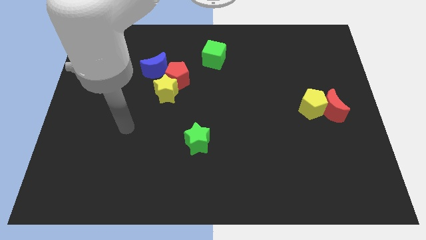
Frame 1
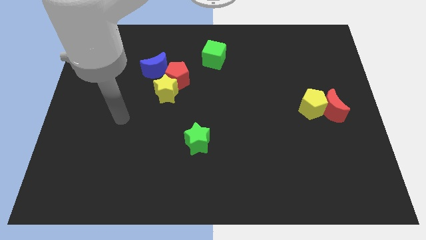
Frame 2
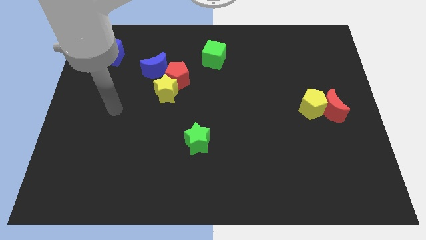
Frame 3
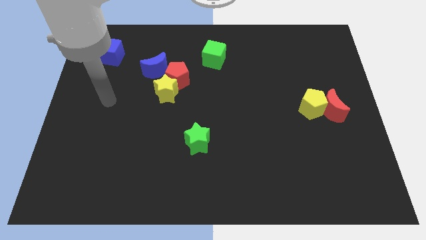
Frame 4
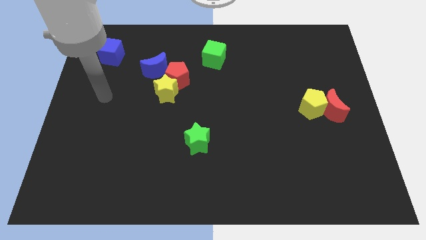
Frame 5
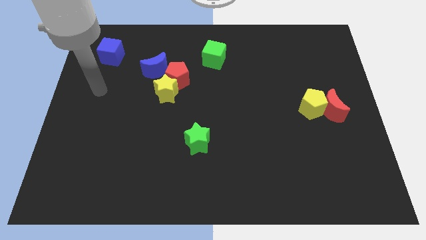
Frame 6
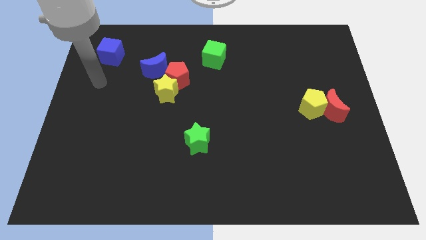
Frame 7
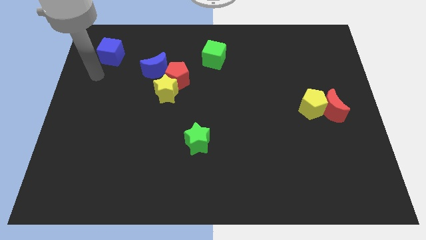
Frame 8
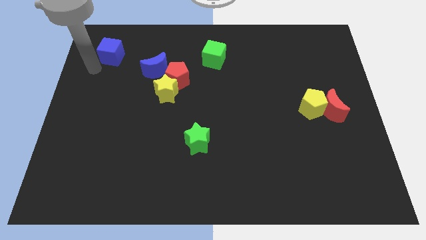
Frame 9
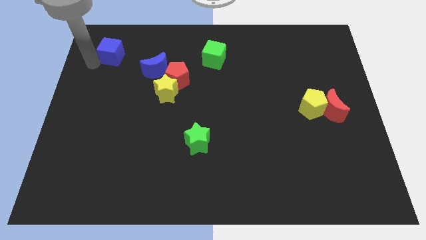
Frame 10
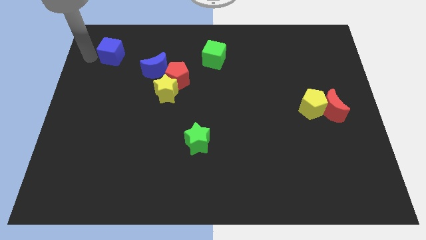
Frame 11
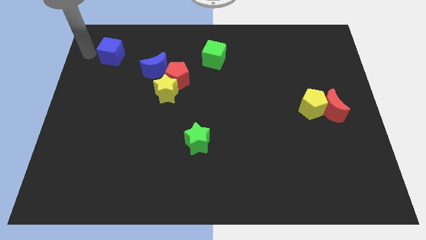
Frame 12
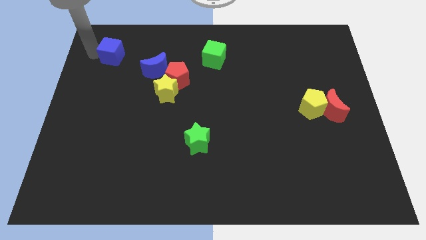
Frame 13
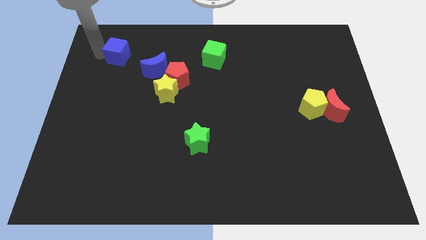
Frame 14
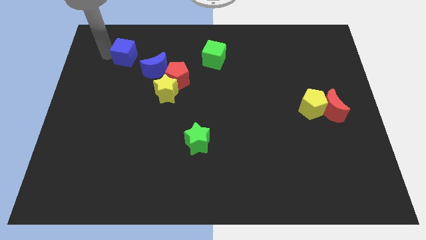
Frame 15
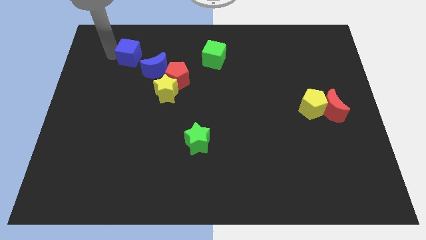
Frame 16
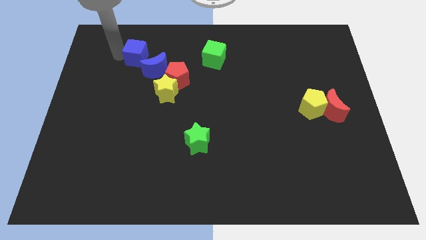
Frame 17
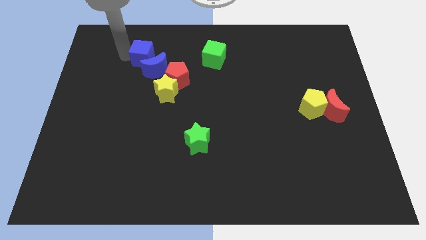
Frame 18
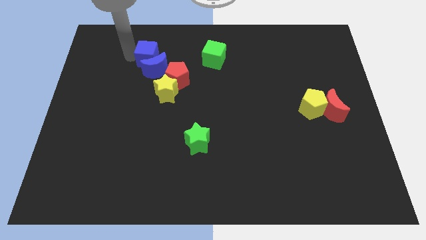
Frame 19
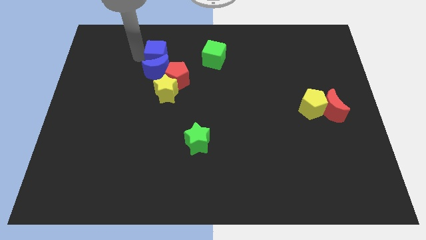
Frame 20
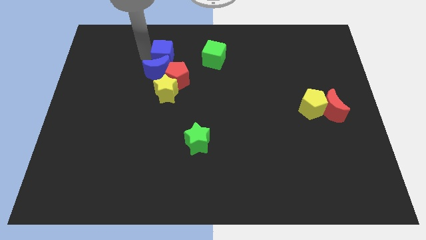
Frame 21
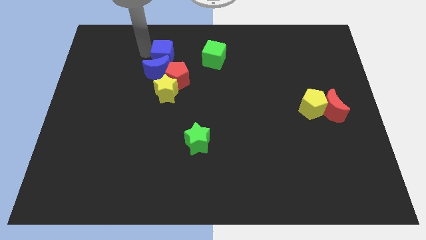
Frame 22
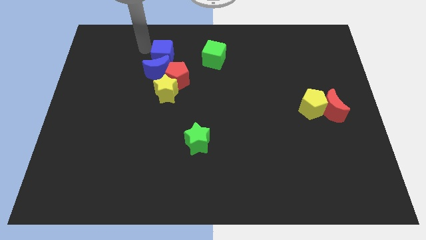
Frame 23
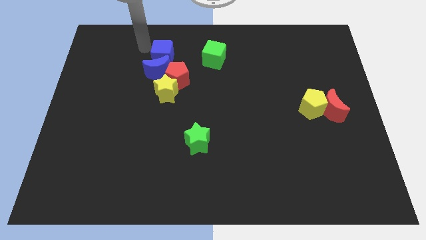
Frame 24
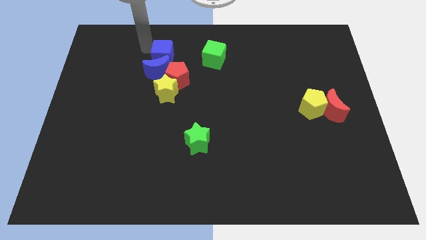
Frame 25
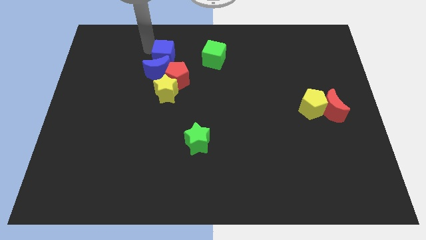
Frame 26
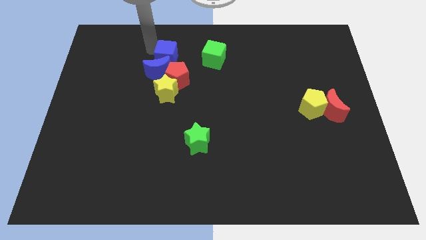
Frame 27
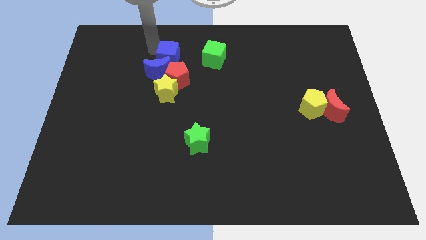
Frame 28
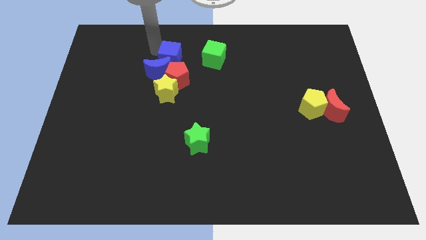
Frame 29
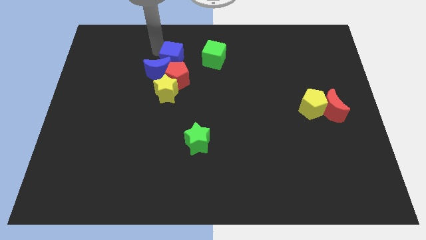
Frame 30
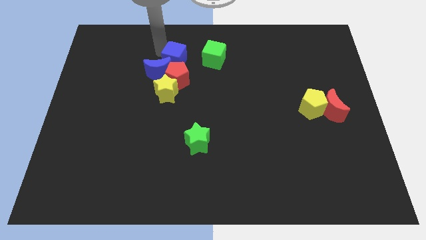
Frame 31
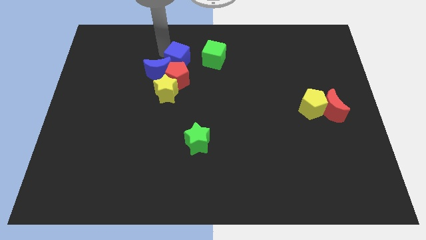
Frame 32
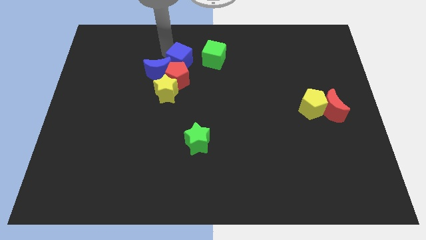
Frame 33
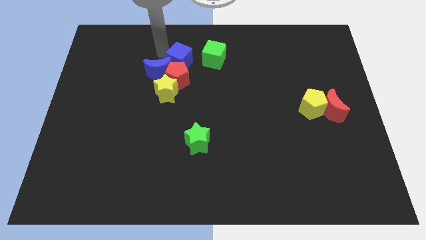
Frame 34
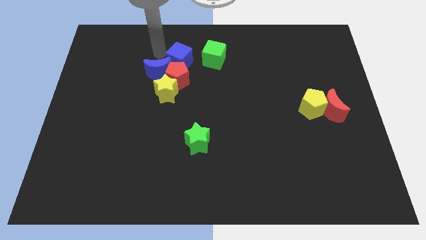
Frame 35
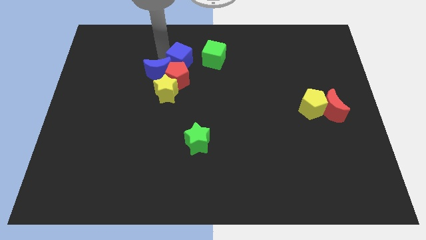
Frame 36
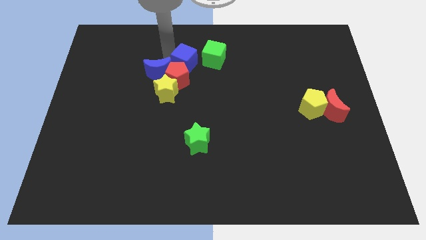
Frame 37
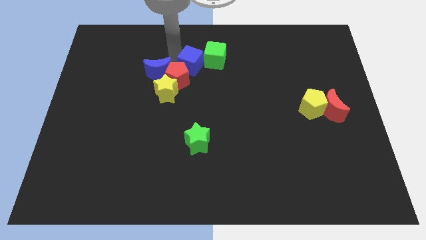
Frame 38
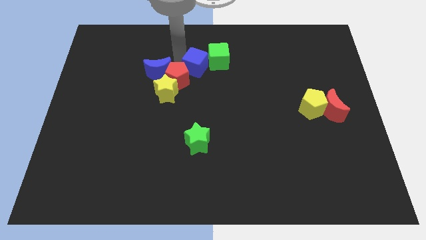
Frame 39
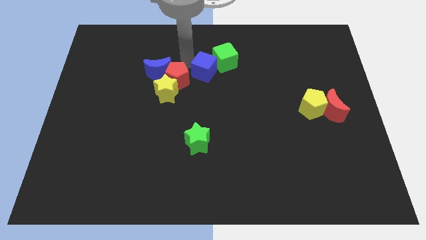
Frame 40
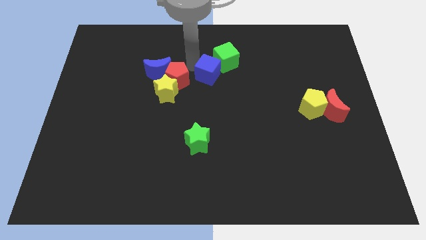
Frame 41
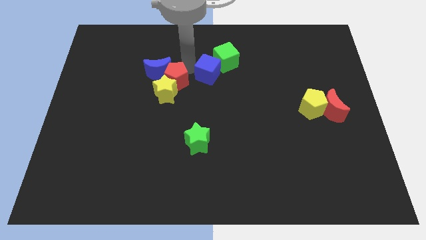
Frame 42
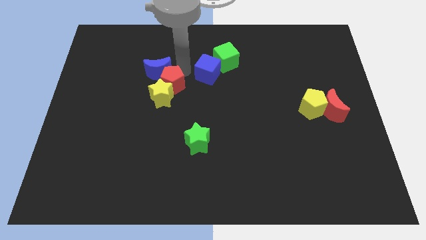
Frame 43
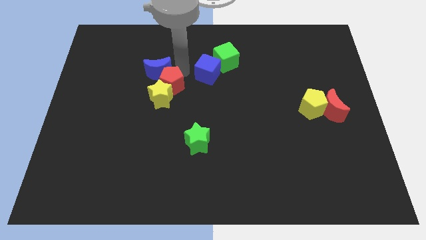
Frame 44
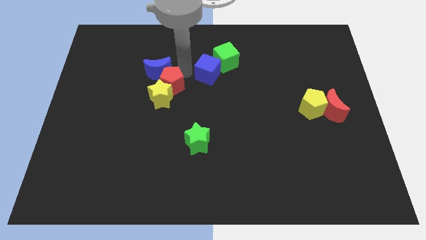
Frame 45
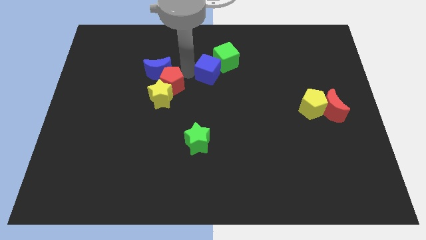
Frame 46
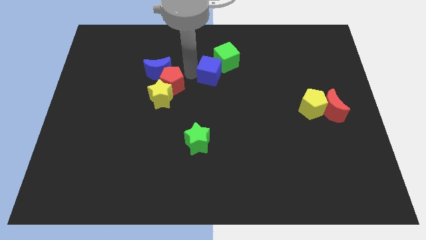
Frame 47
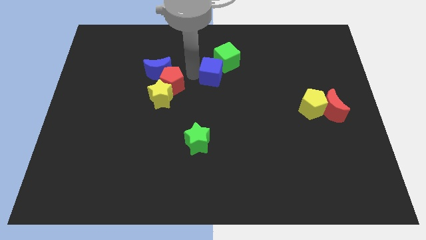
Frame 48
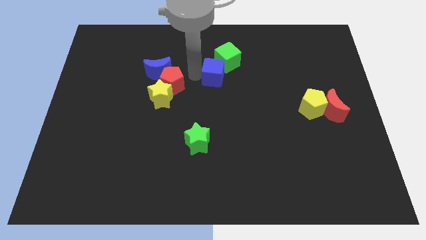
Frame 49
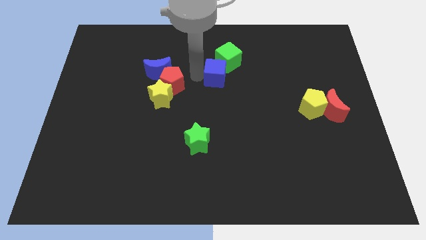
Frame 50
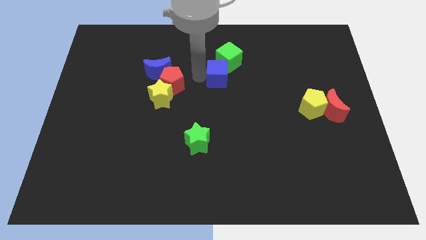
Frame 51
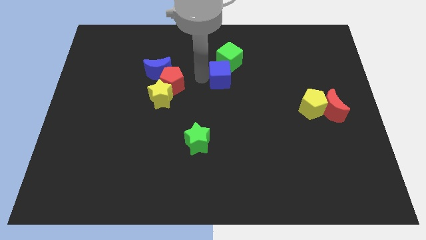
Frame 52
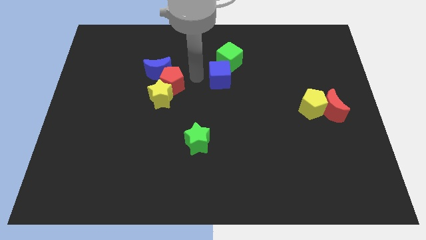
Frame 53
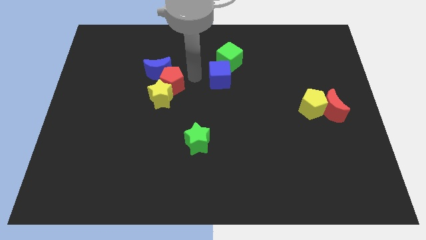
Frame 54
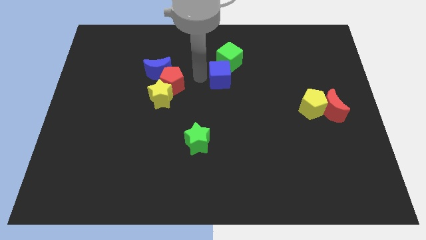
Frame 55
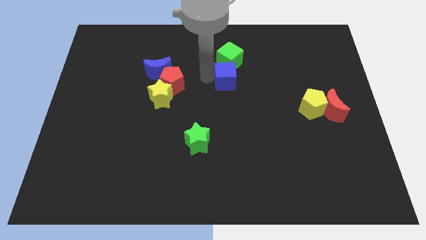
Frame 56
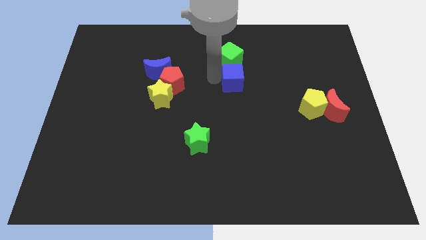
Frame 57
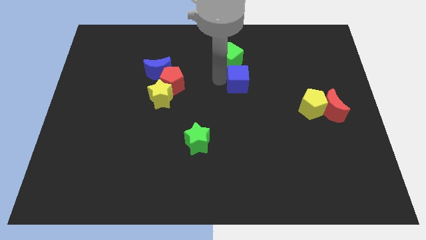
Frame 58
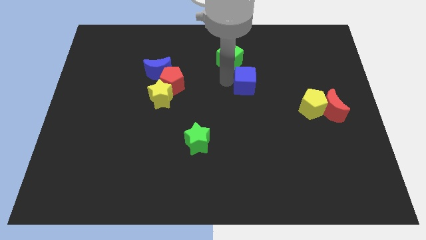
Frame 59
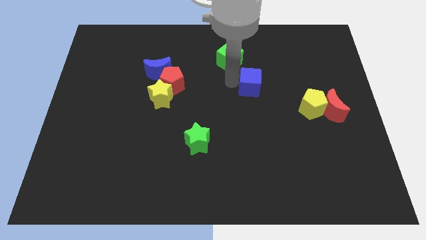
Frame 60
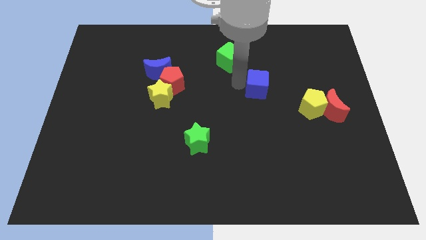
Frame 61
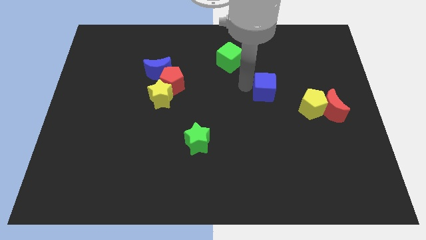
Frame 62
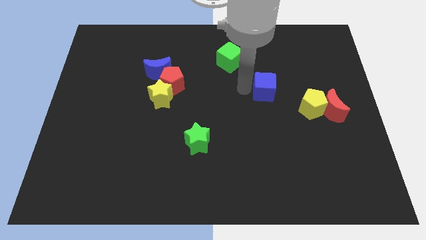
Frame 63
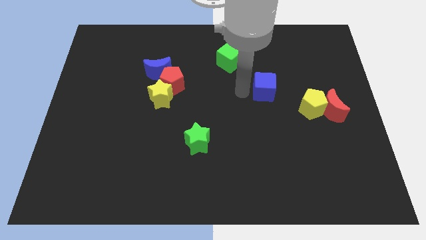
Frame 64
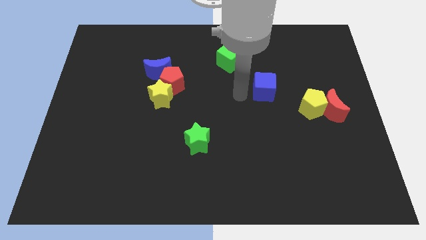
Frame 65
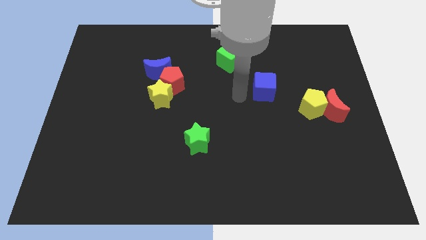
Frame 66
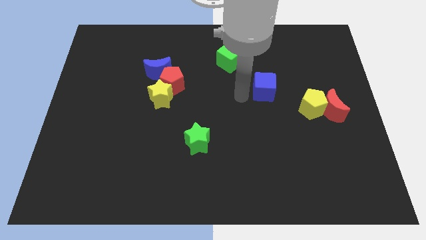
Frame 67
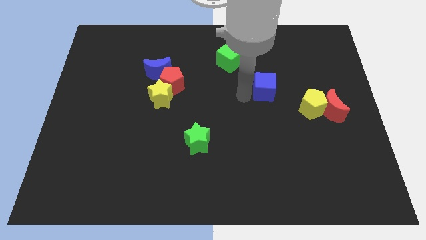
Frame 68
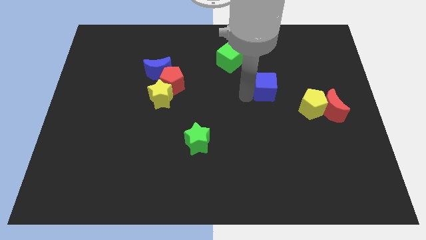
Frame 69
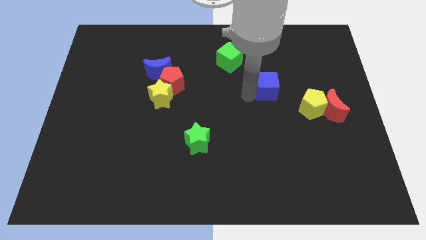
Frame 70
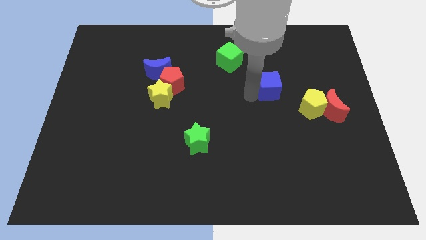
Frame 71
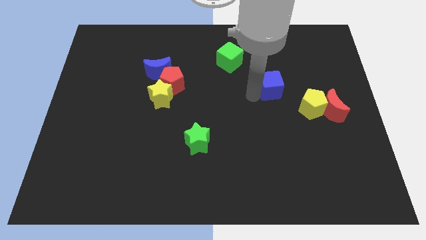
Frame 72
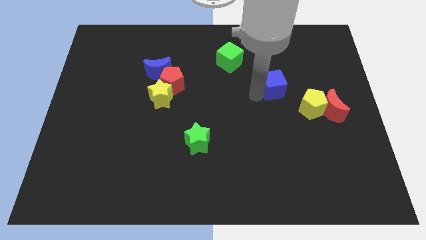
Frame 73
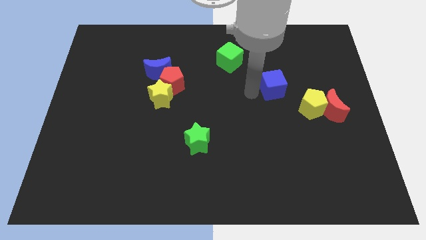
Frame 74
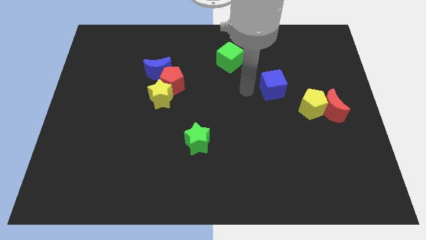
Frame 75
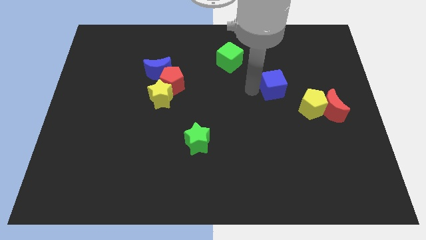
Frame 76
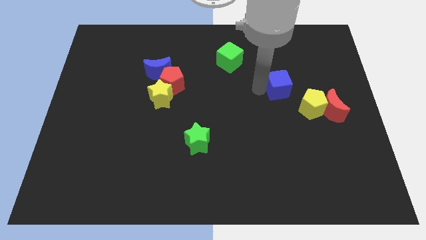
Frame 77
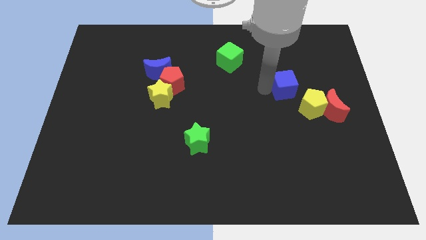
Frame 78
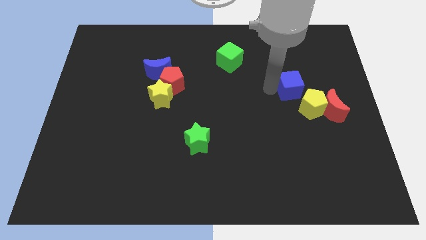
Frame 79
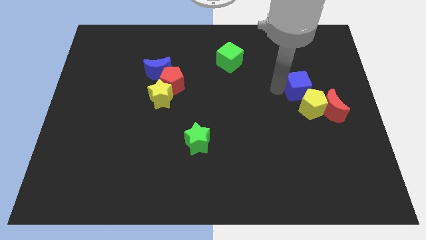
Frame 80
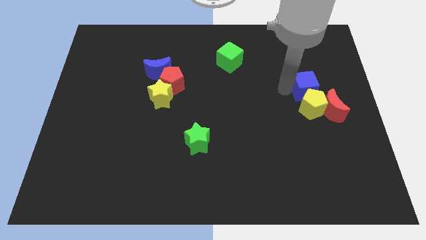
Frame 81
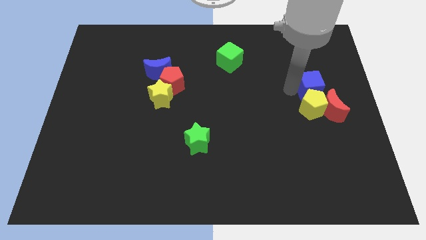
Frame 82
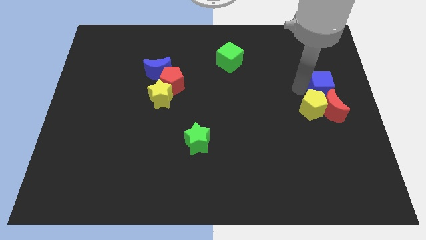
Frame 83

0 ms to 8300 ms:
push the blue cube to the right side of the board
